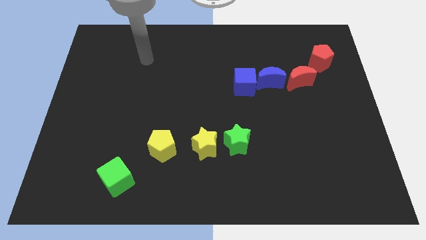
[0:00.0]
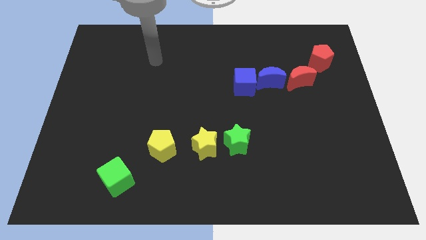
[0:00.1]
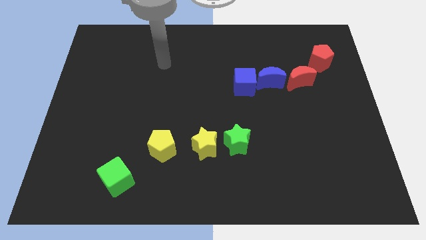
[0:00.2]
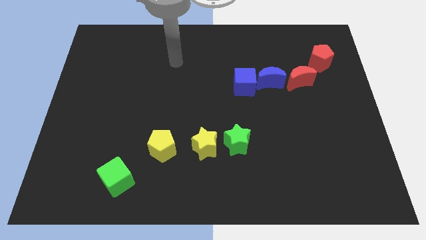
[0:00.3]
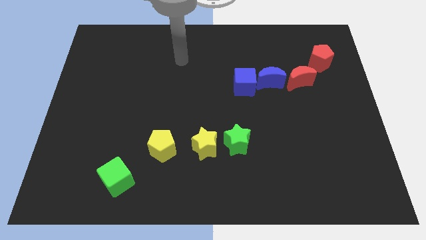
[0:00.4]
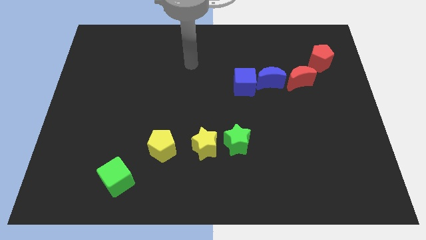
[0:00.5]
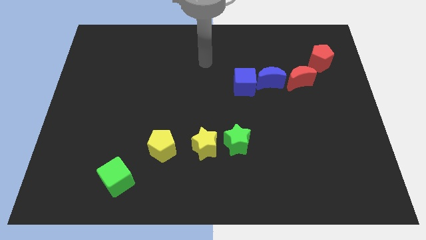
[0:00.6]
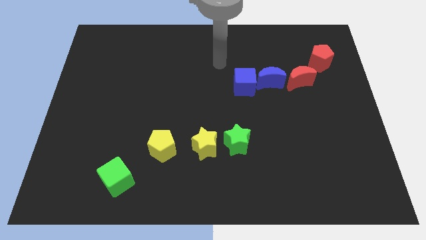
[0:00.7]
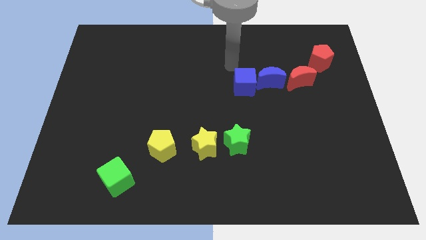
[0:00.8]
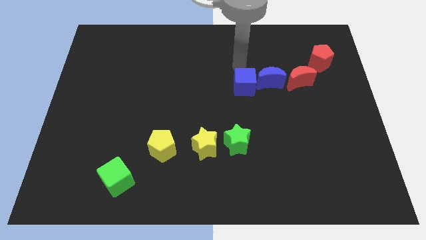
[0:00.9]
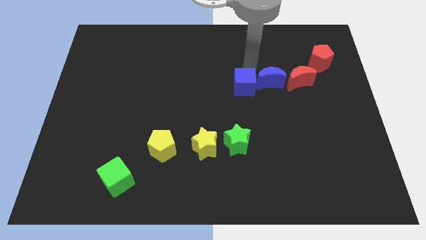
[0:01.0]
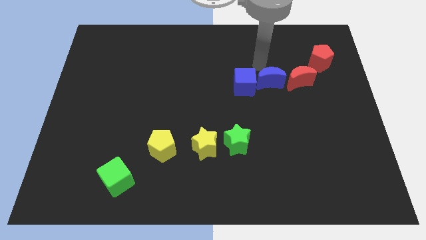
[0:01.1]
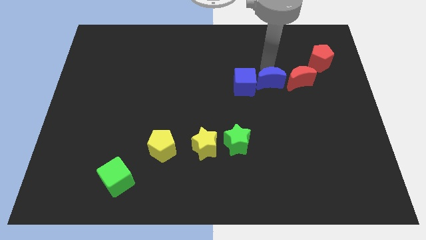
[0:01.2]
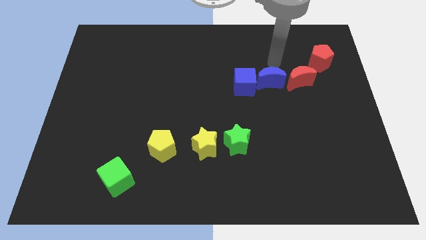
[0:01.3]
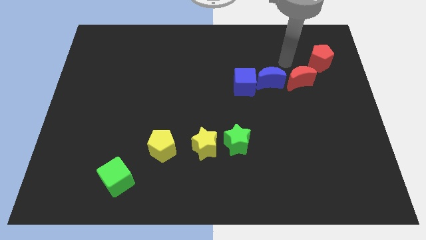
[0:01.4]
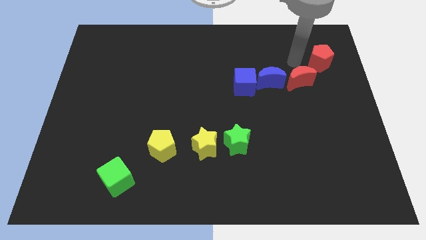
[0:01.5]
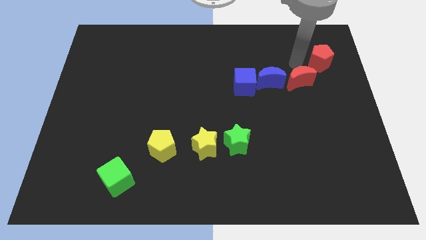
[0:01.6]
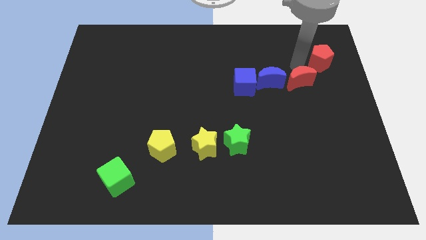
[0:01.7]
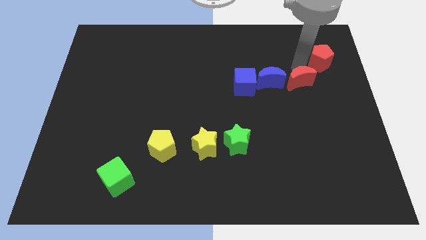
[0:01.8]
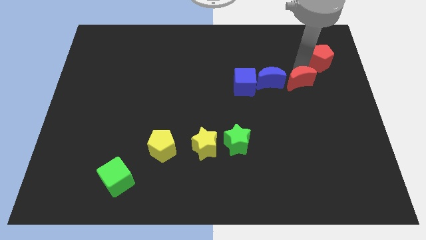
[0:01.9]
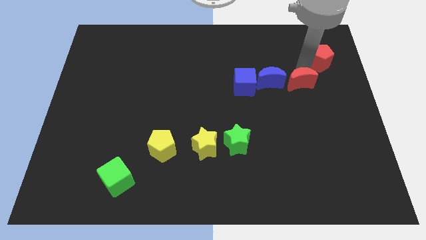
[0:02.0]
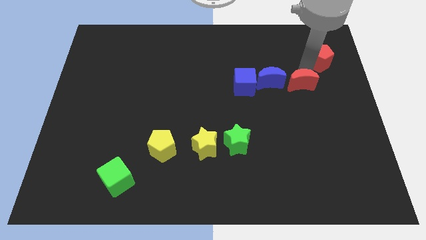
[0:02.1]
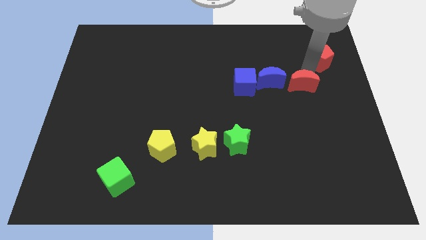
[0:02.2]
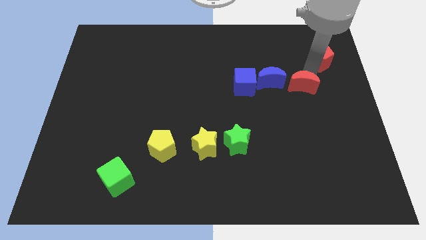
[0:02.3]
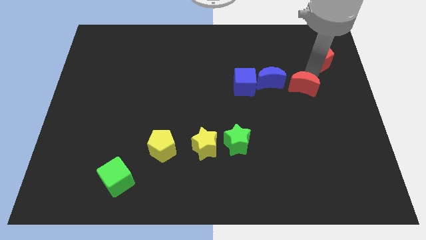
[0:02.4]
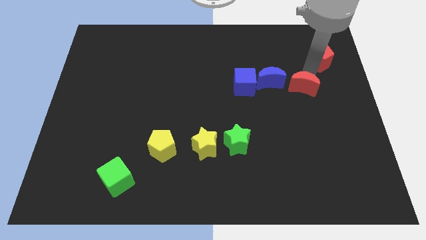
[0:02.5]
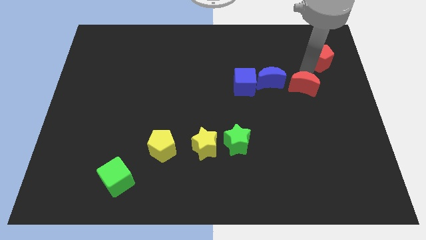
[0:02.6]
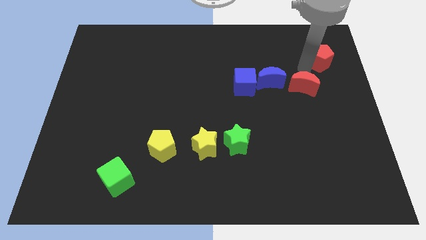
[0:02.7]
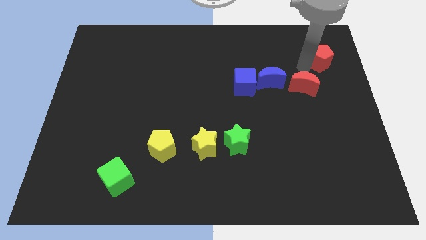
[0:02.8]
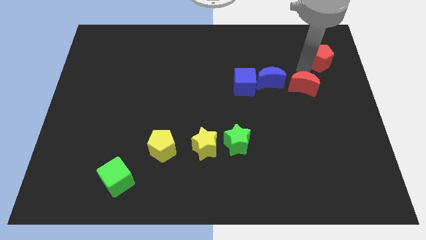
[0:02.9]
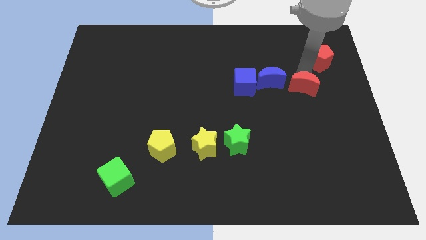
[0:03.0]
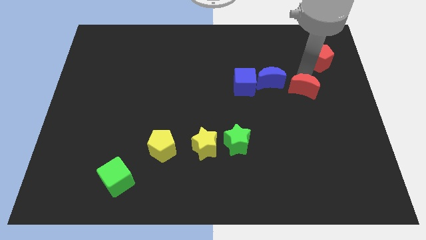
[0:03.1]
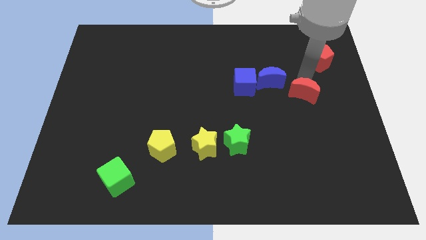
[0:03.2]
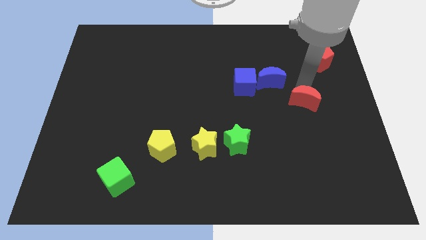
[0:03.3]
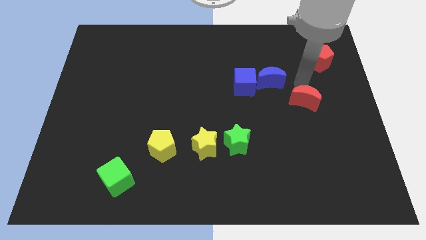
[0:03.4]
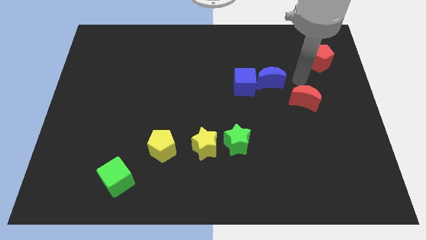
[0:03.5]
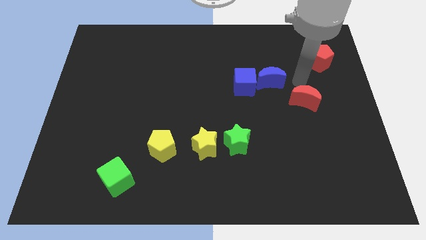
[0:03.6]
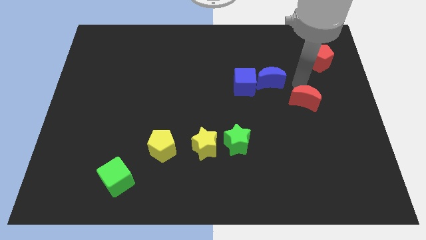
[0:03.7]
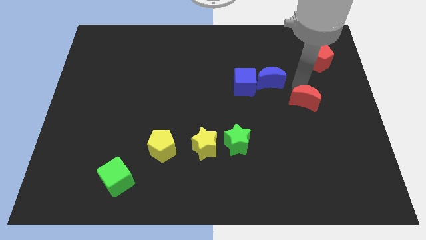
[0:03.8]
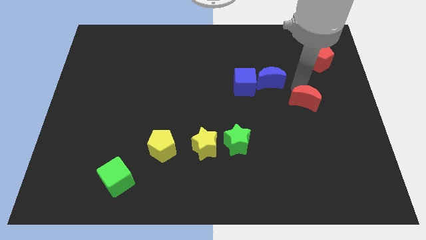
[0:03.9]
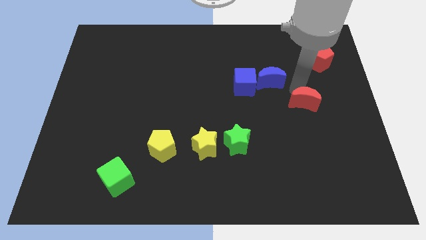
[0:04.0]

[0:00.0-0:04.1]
move the red moon somewhat down

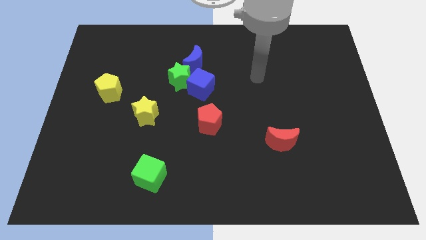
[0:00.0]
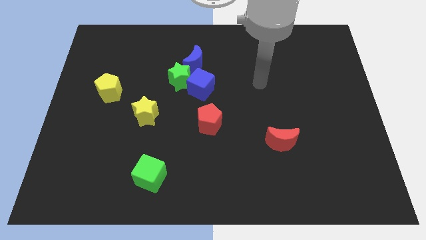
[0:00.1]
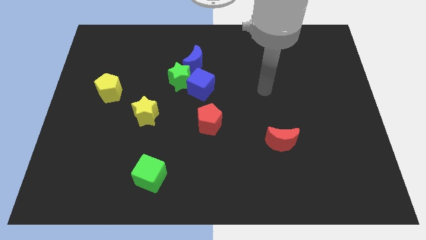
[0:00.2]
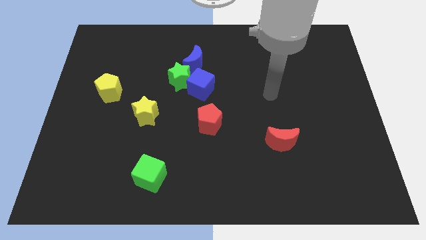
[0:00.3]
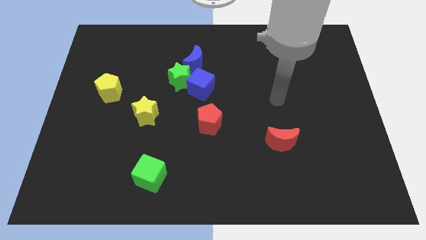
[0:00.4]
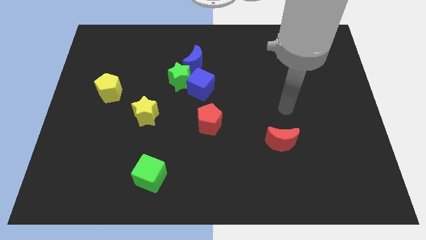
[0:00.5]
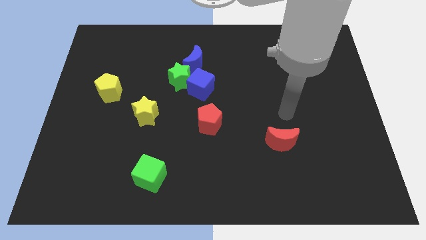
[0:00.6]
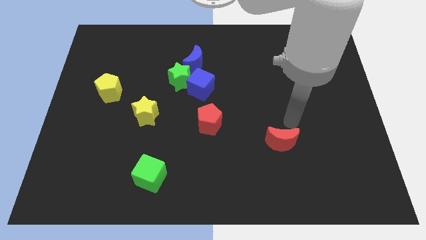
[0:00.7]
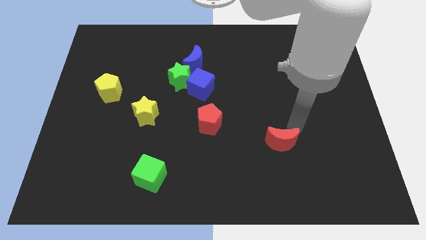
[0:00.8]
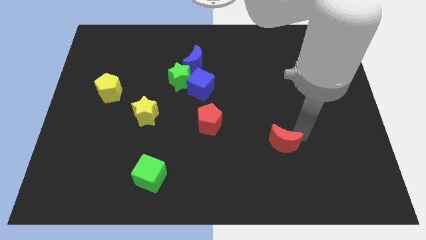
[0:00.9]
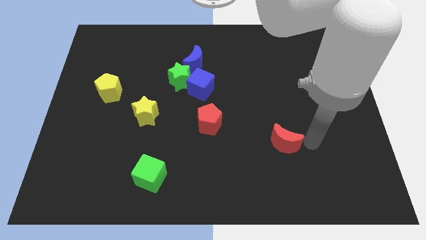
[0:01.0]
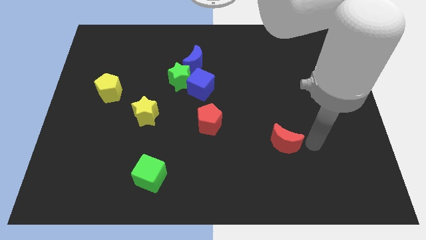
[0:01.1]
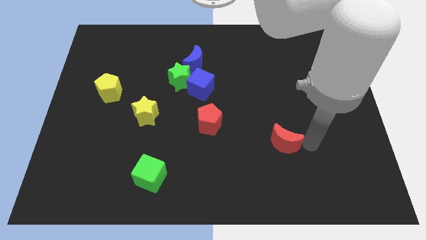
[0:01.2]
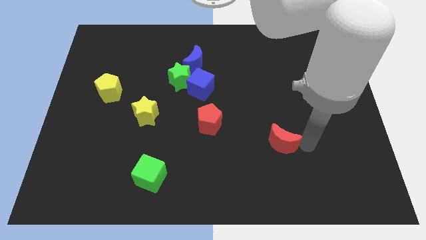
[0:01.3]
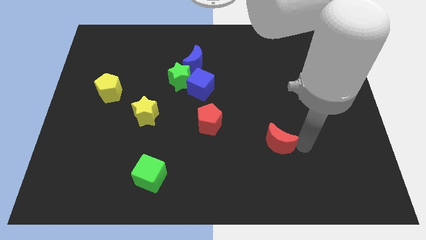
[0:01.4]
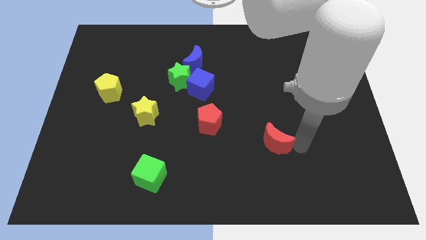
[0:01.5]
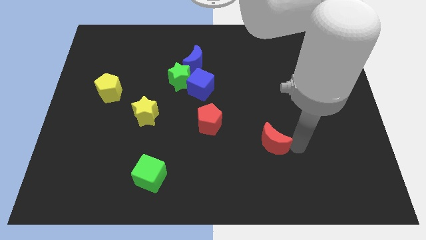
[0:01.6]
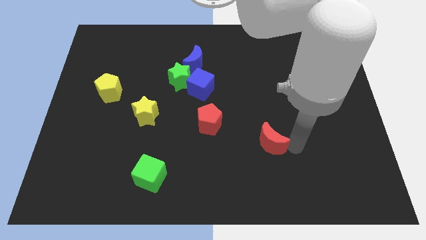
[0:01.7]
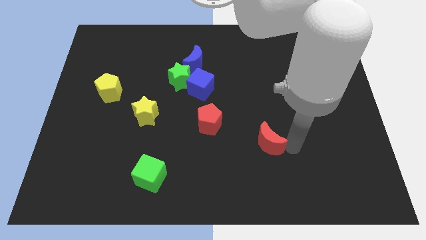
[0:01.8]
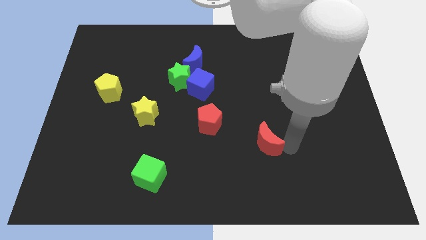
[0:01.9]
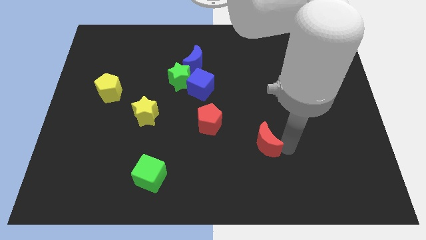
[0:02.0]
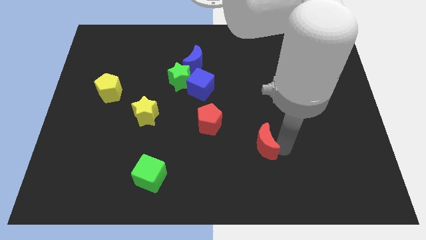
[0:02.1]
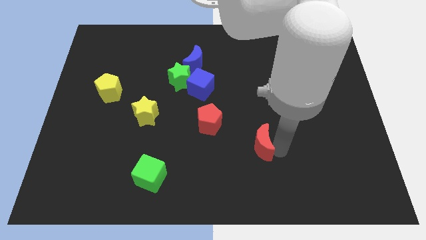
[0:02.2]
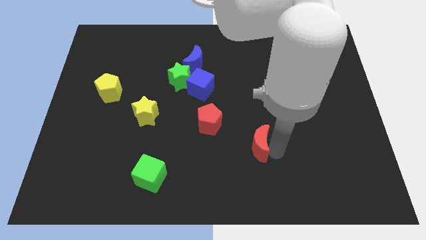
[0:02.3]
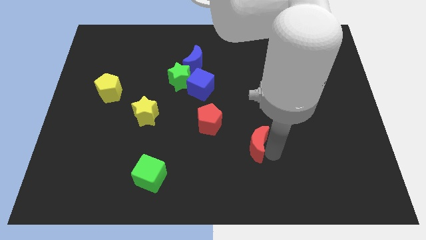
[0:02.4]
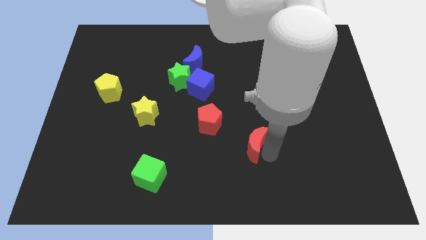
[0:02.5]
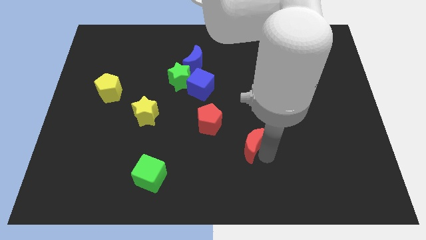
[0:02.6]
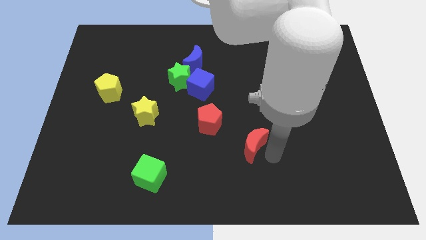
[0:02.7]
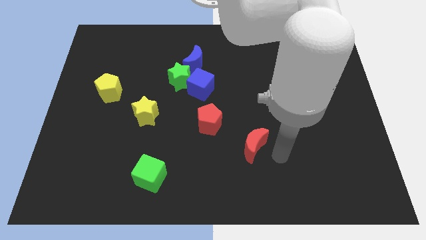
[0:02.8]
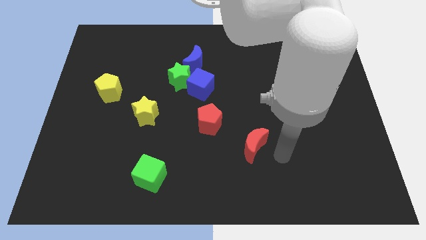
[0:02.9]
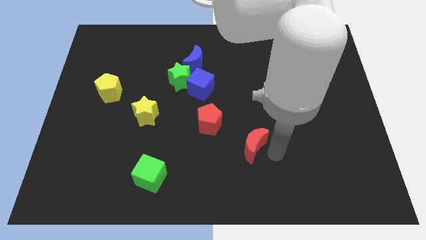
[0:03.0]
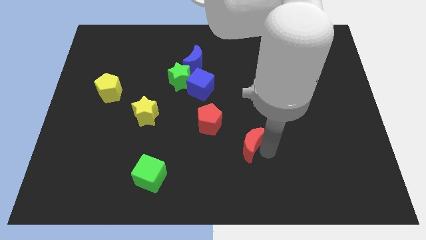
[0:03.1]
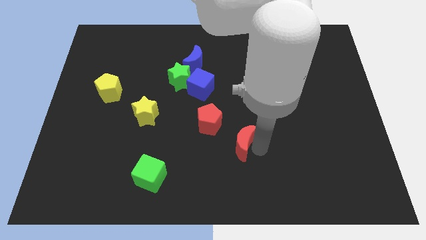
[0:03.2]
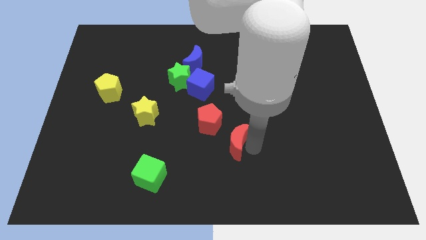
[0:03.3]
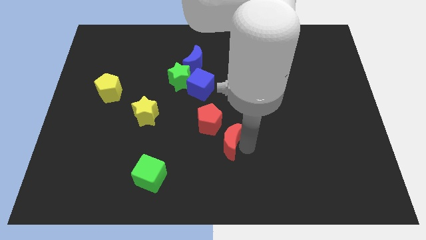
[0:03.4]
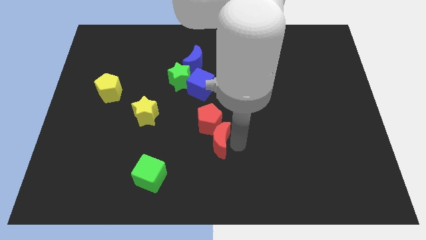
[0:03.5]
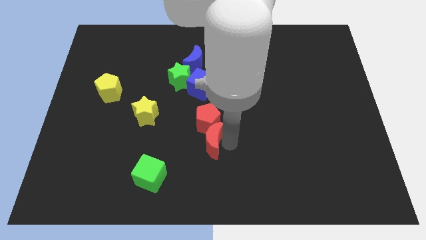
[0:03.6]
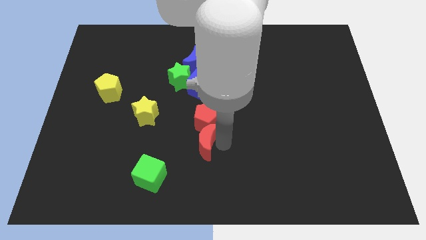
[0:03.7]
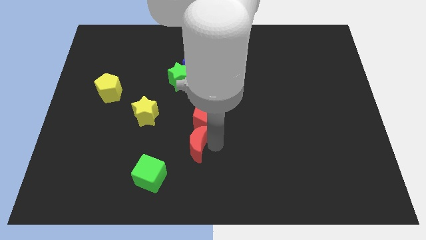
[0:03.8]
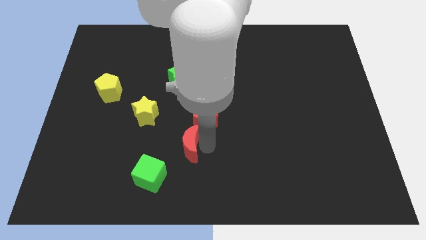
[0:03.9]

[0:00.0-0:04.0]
slide the red moon left

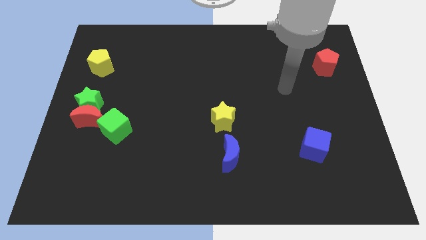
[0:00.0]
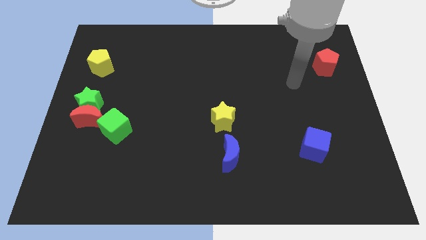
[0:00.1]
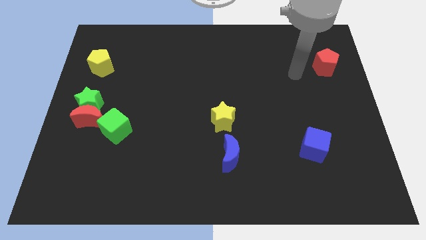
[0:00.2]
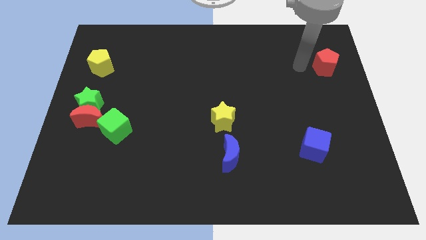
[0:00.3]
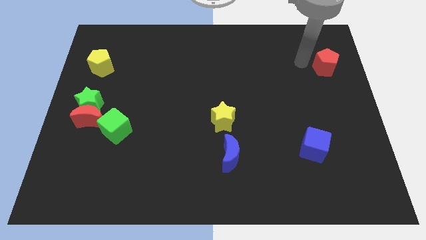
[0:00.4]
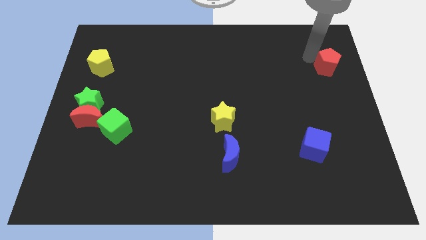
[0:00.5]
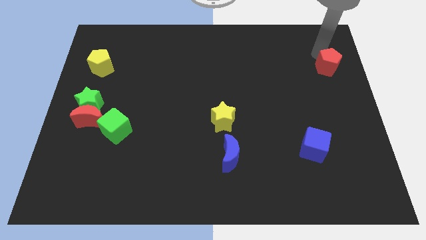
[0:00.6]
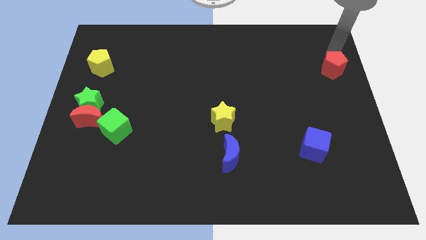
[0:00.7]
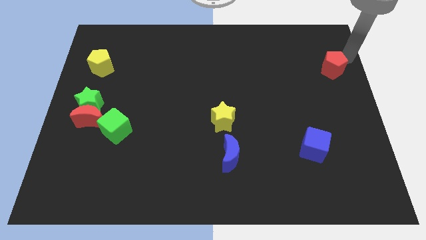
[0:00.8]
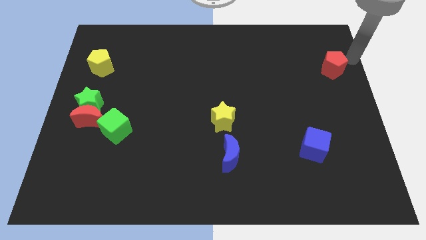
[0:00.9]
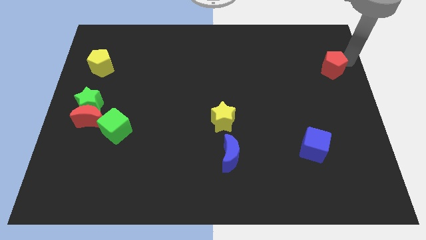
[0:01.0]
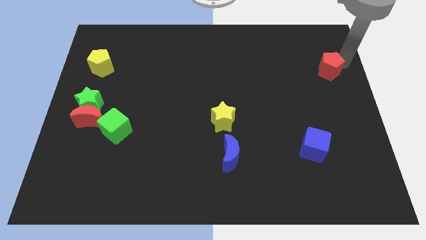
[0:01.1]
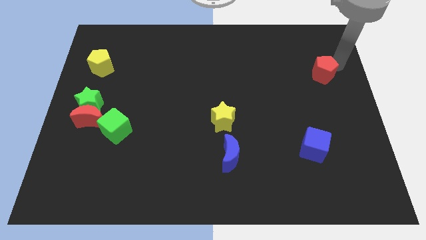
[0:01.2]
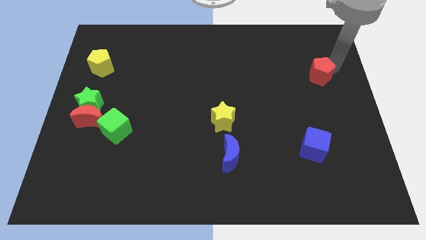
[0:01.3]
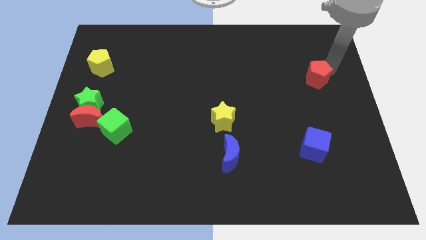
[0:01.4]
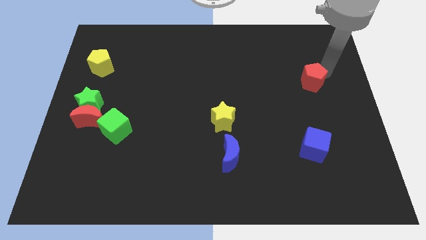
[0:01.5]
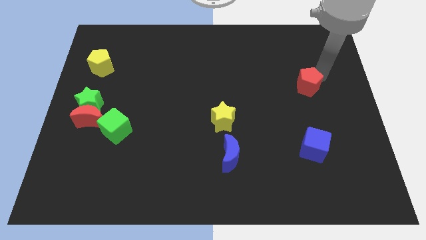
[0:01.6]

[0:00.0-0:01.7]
slightly move the red pentagon downwards and left
